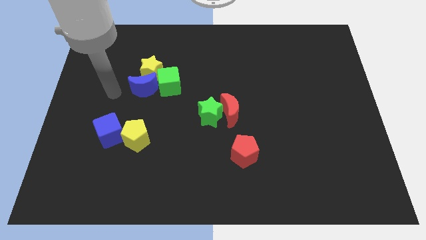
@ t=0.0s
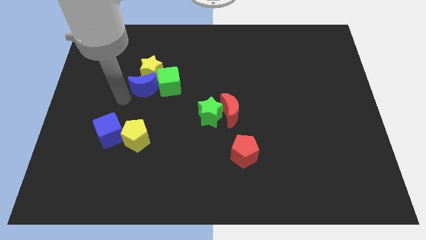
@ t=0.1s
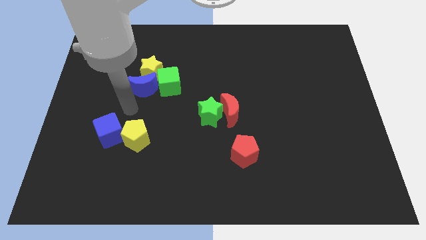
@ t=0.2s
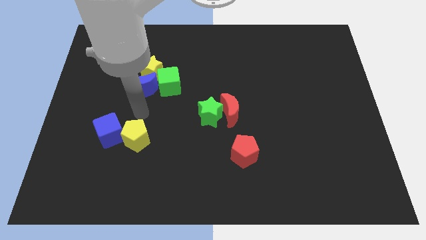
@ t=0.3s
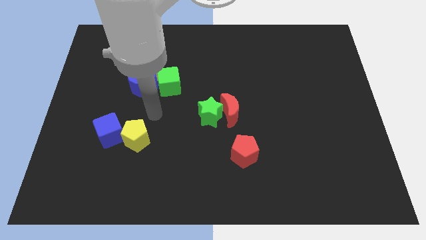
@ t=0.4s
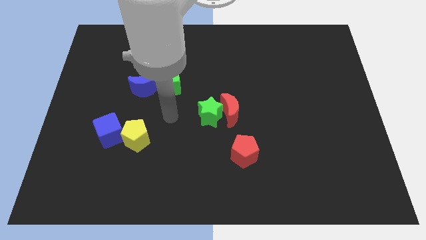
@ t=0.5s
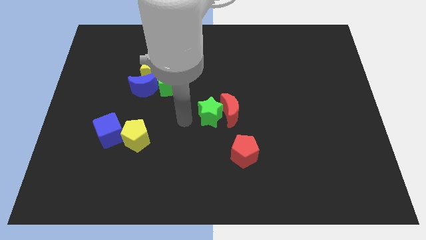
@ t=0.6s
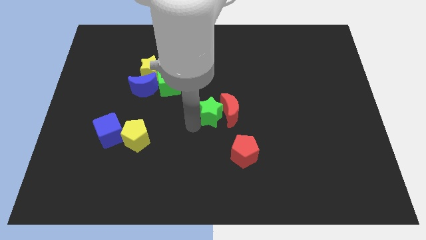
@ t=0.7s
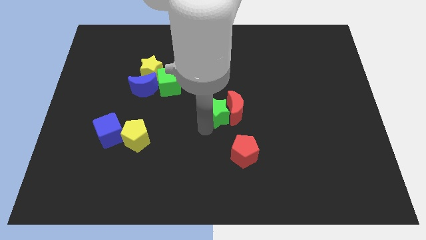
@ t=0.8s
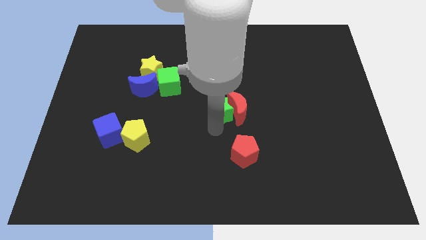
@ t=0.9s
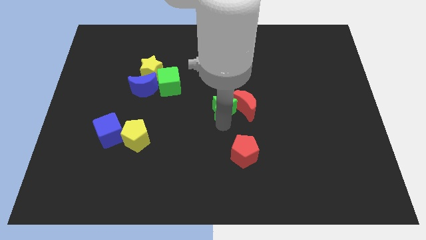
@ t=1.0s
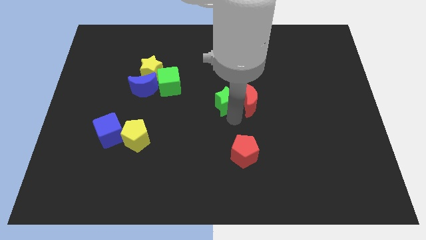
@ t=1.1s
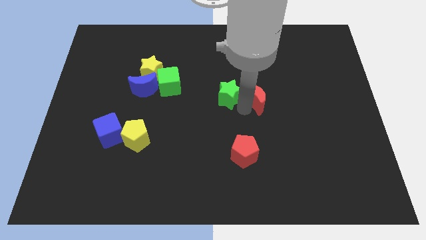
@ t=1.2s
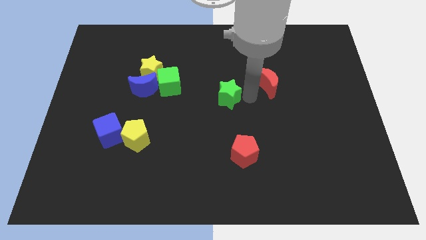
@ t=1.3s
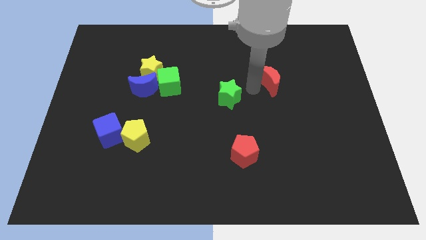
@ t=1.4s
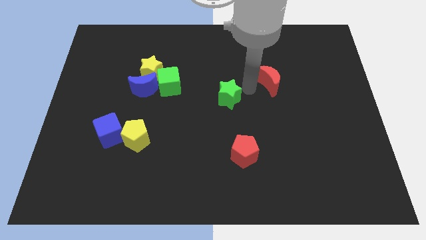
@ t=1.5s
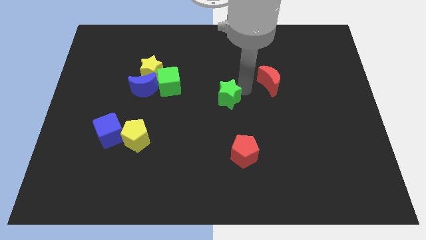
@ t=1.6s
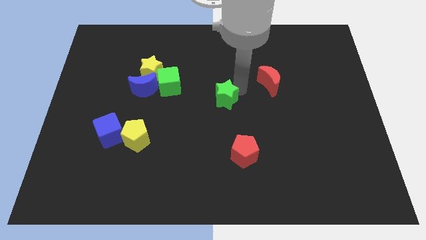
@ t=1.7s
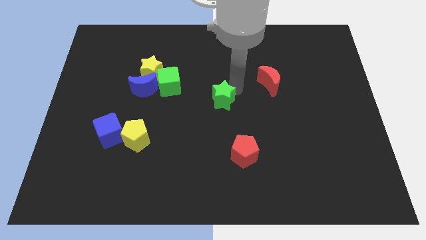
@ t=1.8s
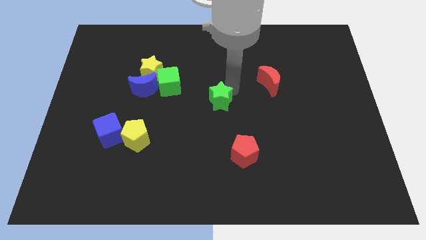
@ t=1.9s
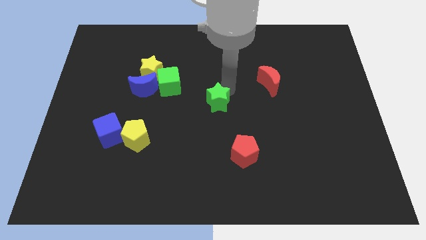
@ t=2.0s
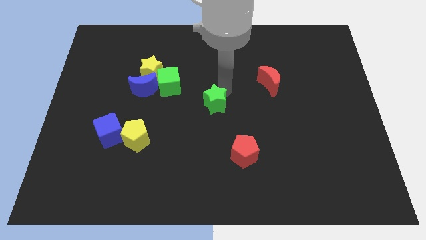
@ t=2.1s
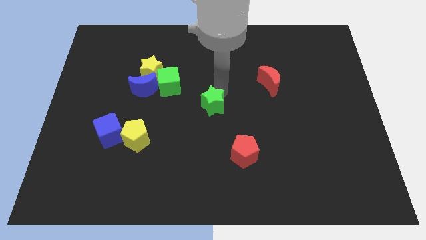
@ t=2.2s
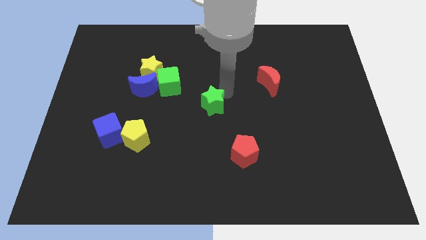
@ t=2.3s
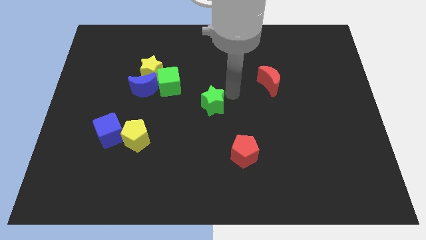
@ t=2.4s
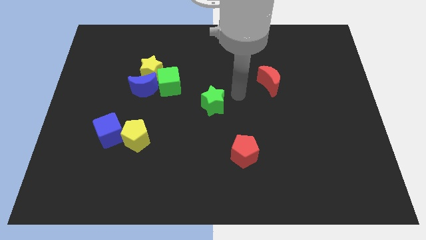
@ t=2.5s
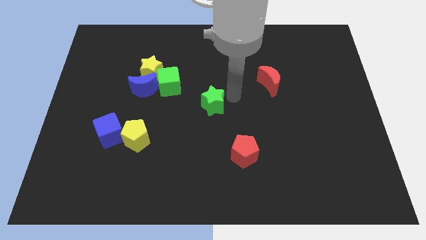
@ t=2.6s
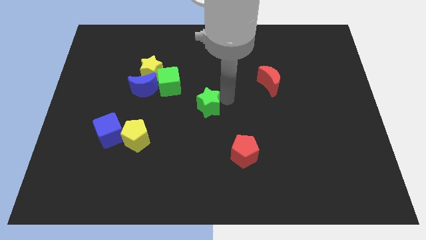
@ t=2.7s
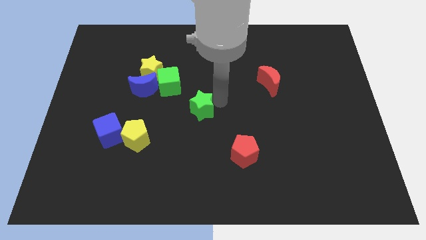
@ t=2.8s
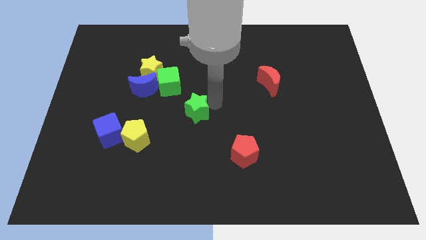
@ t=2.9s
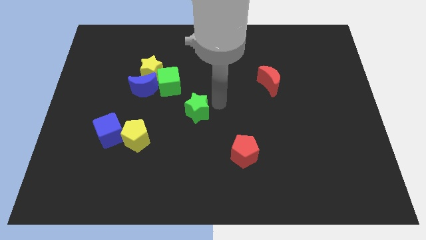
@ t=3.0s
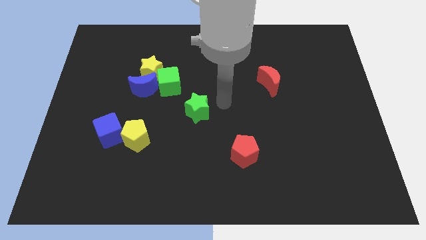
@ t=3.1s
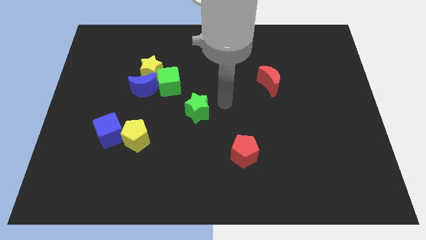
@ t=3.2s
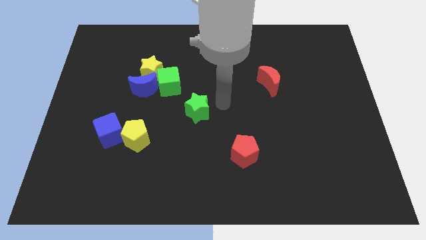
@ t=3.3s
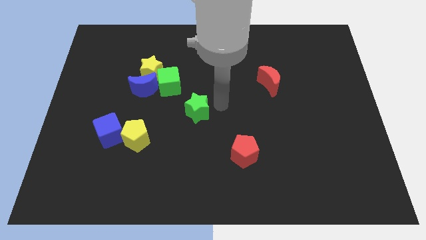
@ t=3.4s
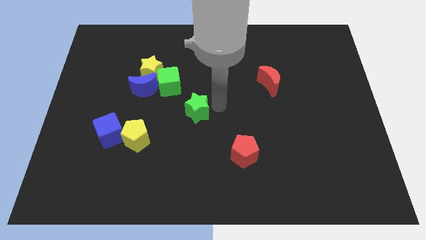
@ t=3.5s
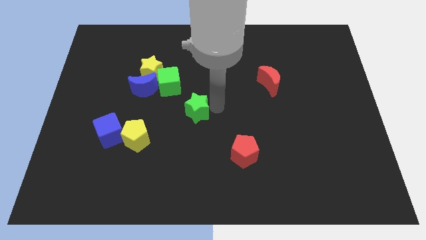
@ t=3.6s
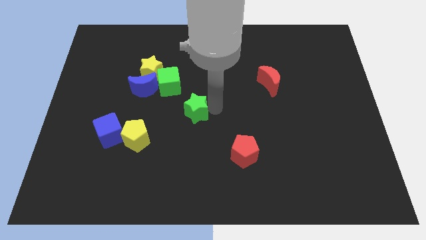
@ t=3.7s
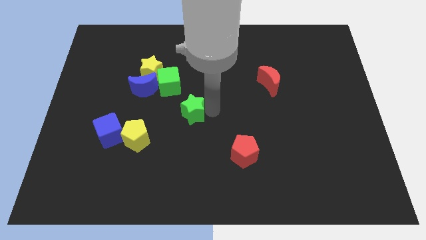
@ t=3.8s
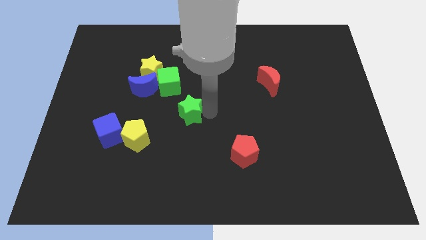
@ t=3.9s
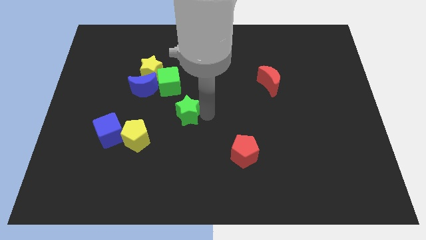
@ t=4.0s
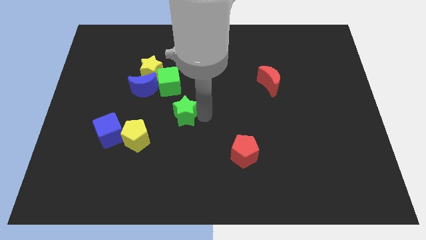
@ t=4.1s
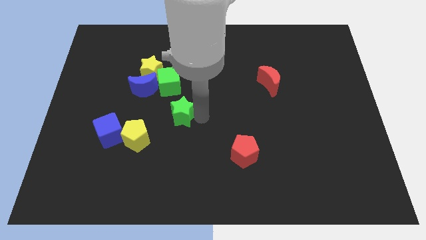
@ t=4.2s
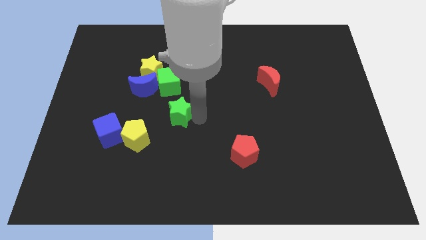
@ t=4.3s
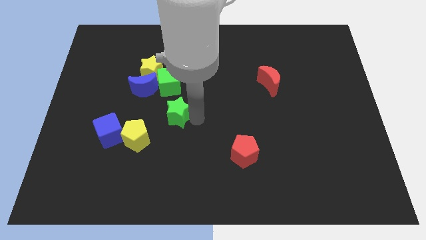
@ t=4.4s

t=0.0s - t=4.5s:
push the green star to the left slightly

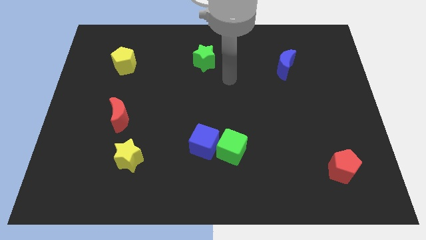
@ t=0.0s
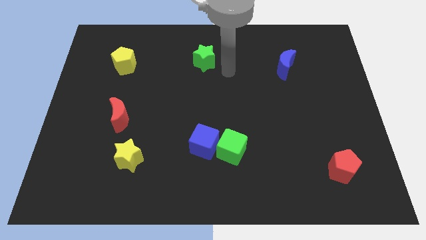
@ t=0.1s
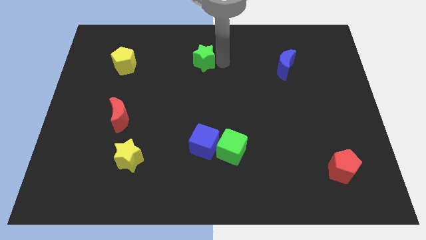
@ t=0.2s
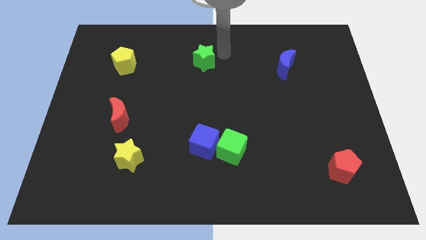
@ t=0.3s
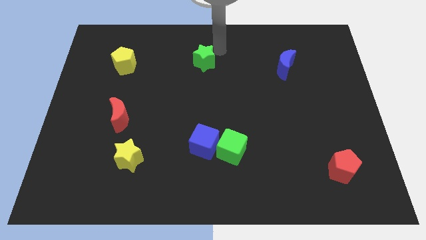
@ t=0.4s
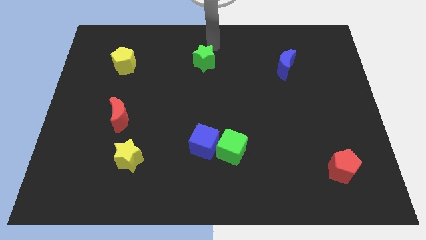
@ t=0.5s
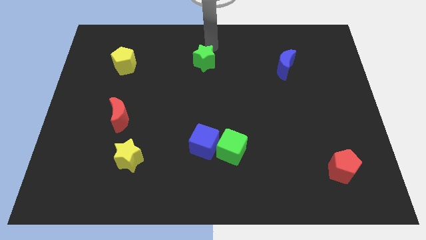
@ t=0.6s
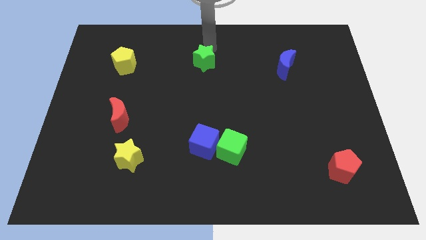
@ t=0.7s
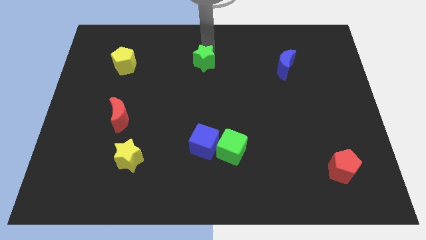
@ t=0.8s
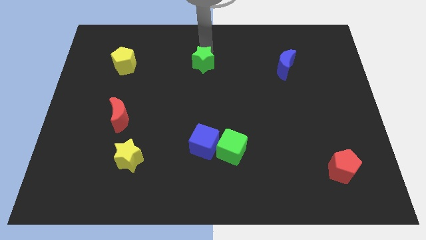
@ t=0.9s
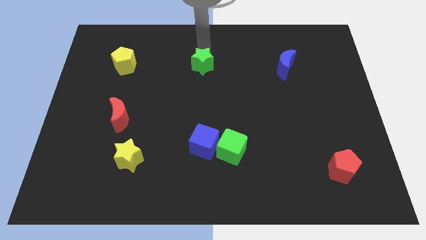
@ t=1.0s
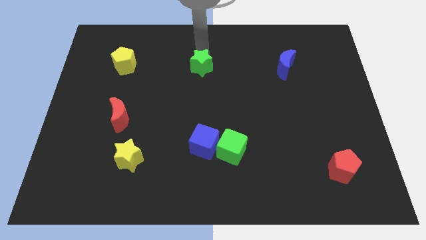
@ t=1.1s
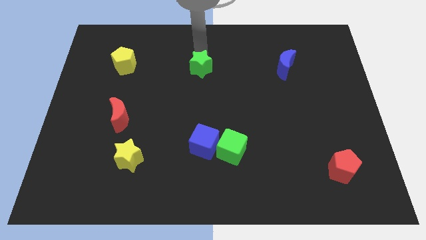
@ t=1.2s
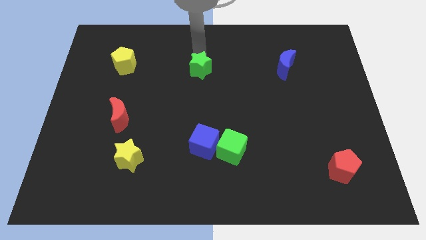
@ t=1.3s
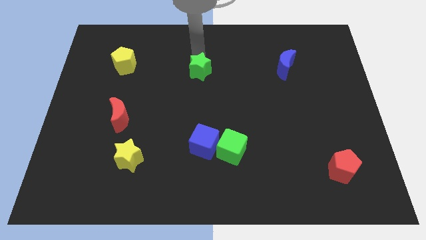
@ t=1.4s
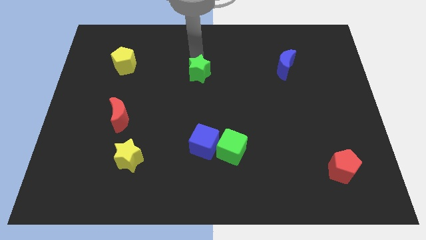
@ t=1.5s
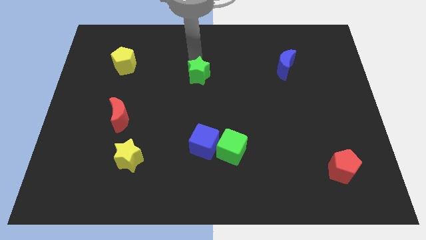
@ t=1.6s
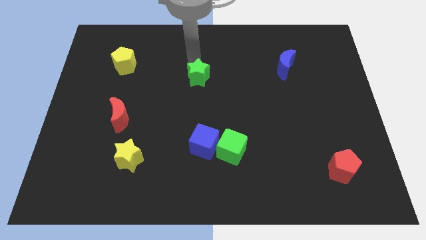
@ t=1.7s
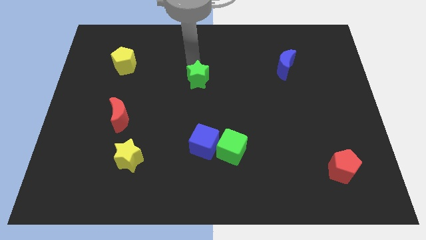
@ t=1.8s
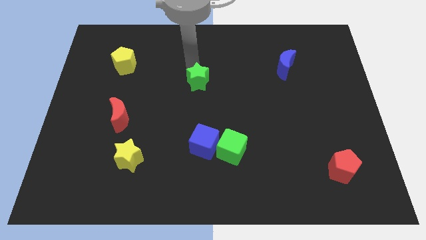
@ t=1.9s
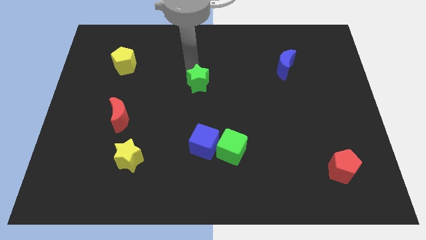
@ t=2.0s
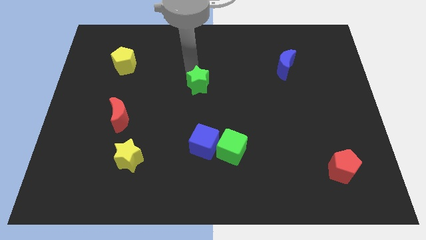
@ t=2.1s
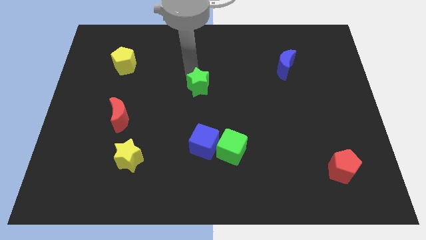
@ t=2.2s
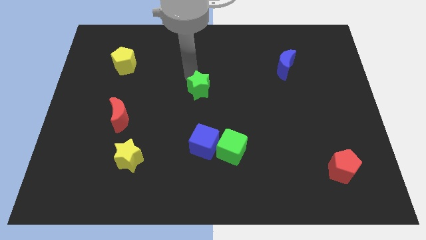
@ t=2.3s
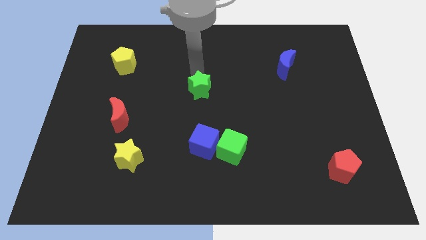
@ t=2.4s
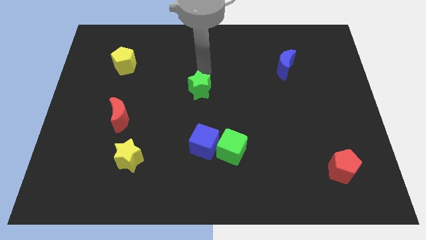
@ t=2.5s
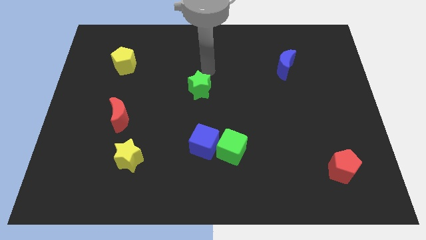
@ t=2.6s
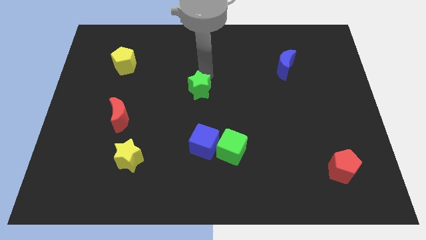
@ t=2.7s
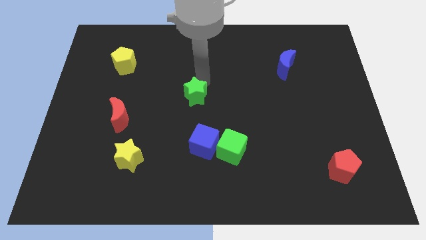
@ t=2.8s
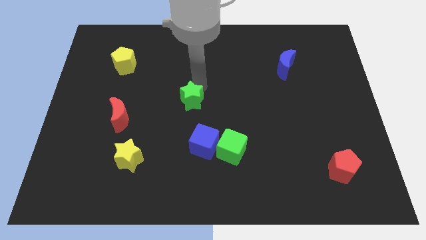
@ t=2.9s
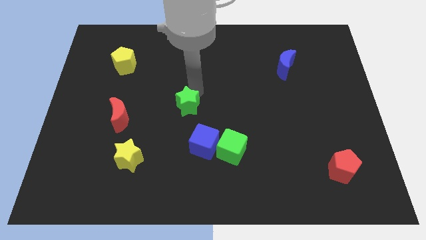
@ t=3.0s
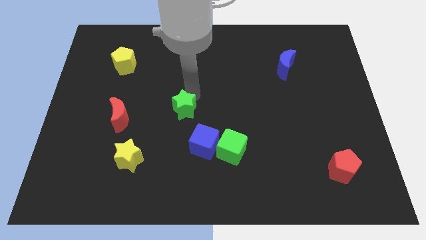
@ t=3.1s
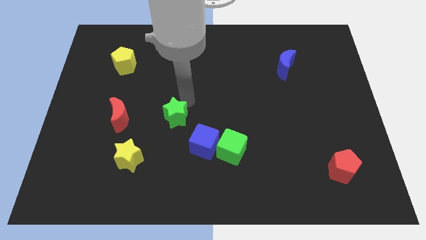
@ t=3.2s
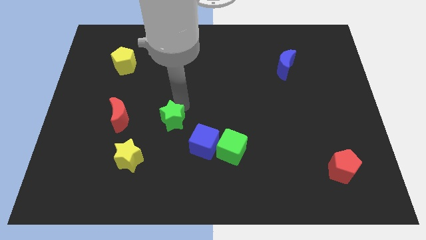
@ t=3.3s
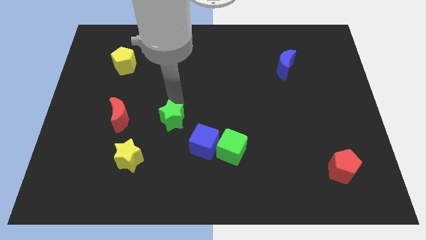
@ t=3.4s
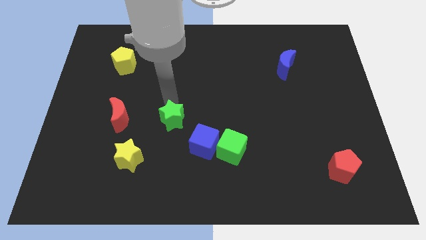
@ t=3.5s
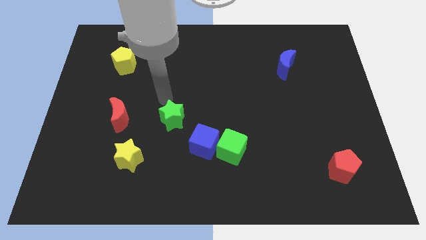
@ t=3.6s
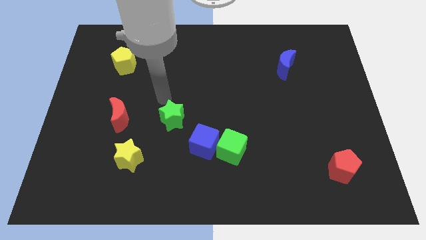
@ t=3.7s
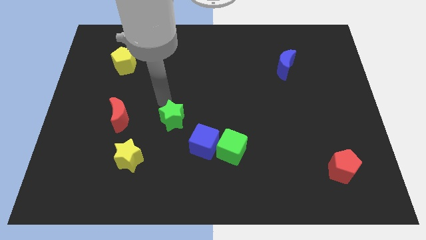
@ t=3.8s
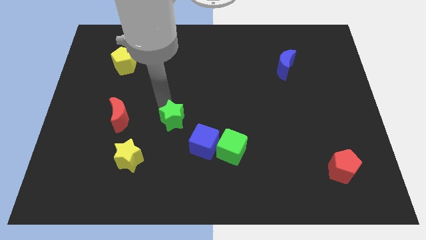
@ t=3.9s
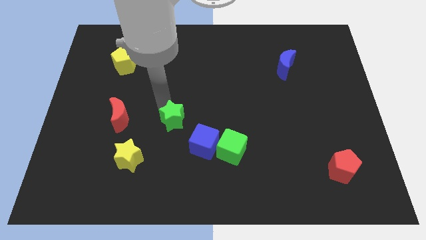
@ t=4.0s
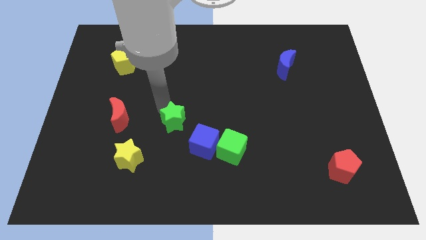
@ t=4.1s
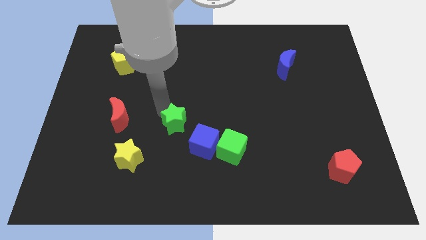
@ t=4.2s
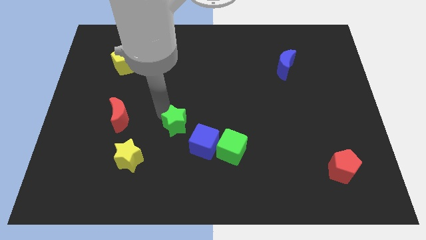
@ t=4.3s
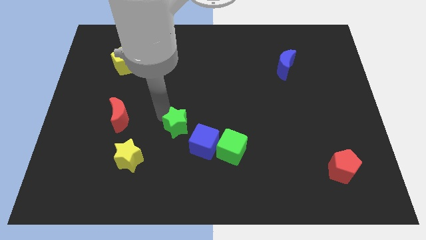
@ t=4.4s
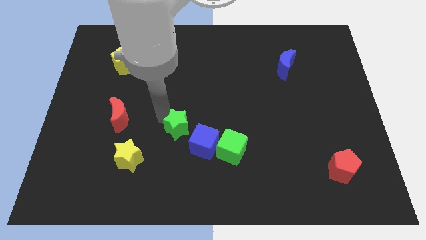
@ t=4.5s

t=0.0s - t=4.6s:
slide the green star downwards
